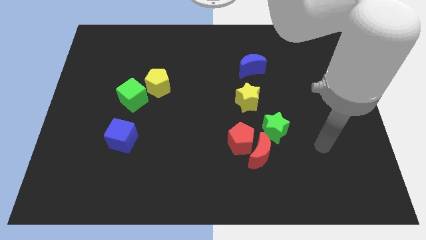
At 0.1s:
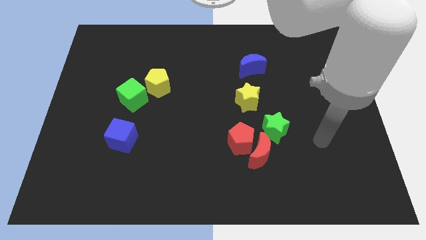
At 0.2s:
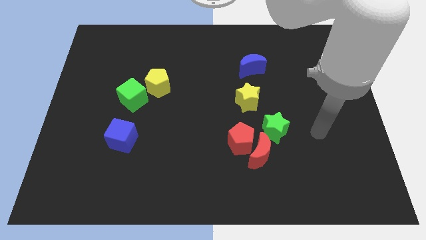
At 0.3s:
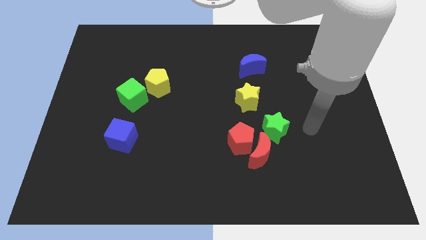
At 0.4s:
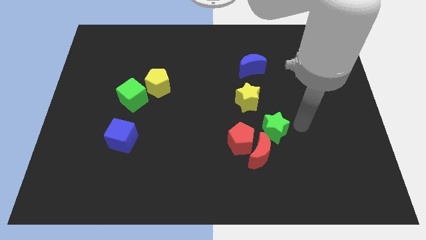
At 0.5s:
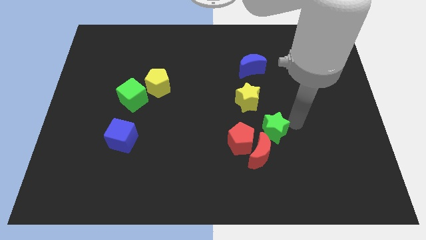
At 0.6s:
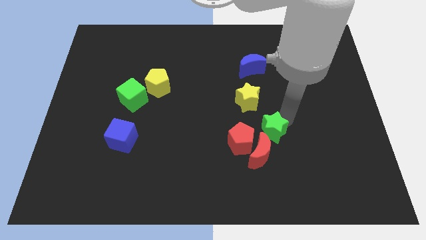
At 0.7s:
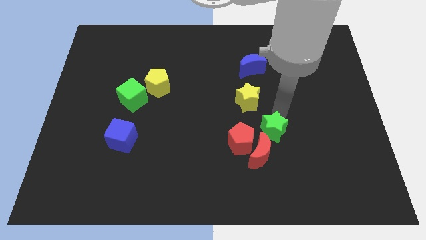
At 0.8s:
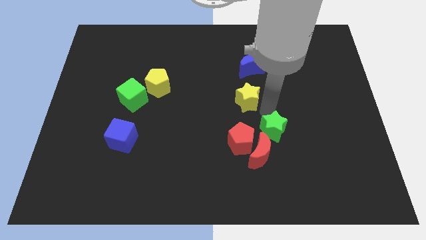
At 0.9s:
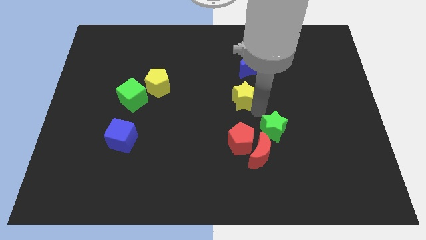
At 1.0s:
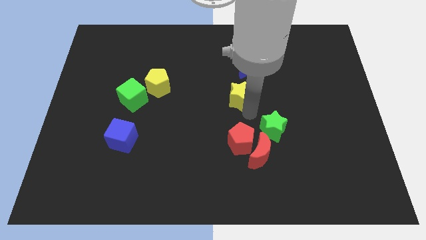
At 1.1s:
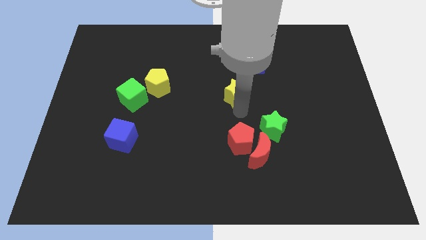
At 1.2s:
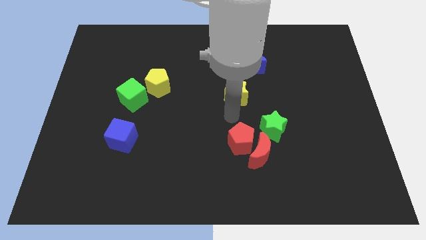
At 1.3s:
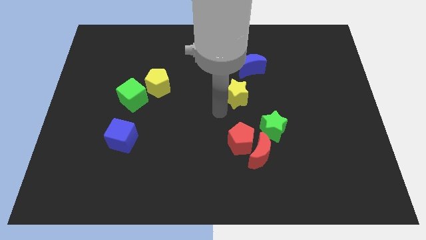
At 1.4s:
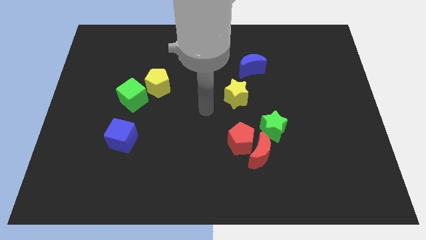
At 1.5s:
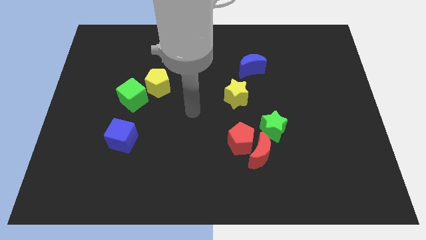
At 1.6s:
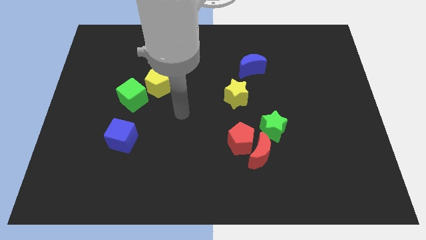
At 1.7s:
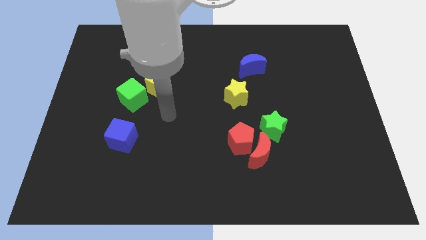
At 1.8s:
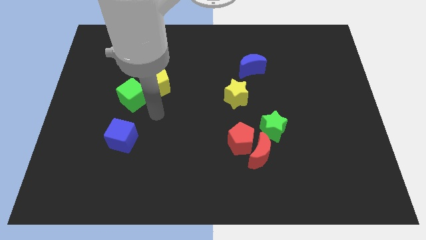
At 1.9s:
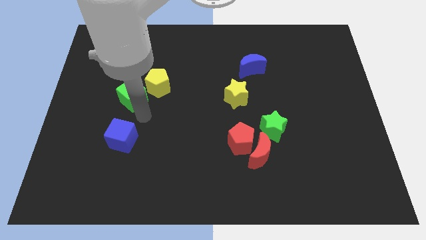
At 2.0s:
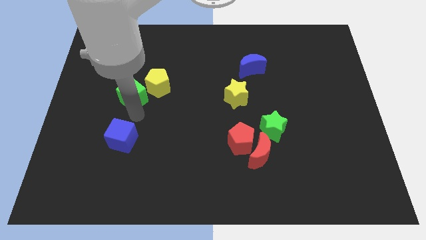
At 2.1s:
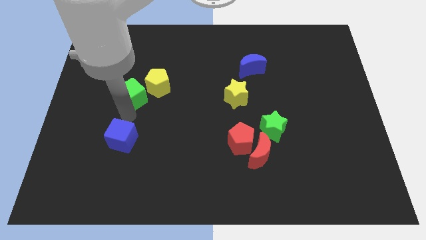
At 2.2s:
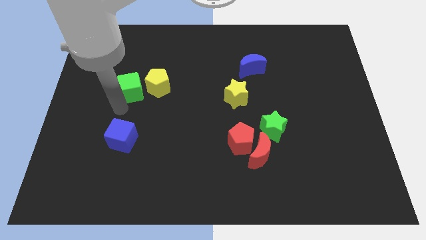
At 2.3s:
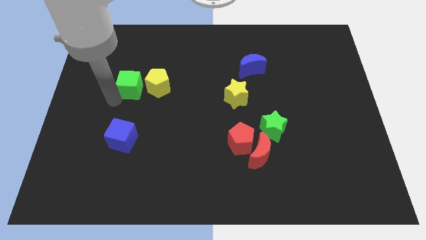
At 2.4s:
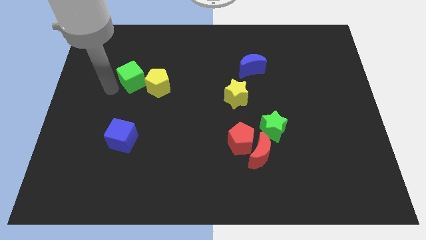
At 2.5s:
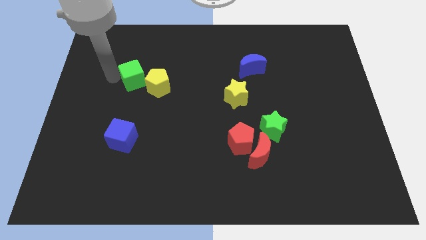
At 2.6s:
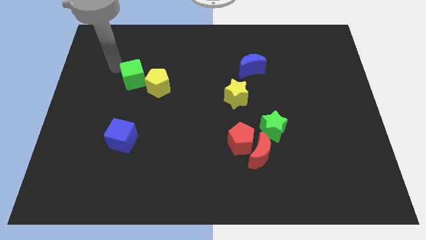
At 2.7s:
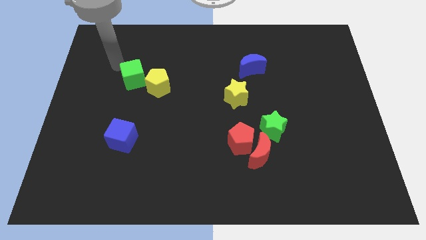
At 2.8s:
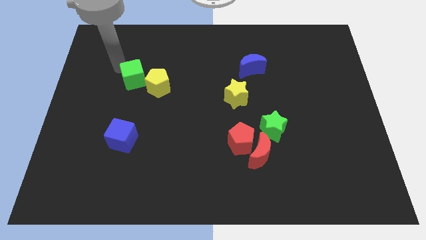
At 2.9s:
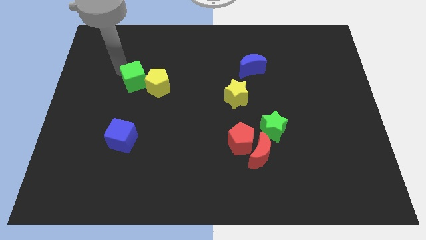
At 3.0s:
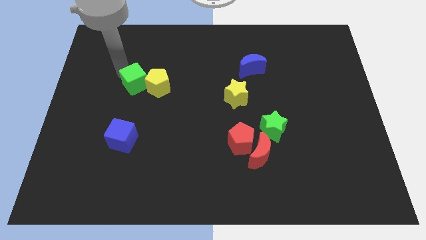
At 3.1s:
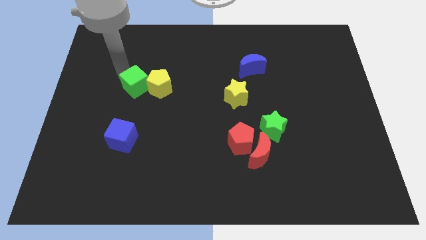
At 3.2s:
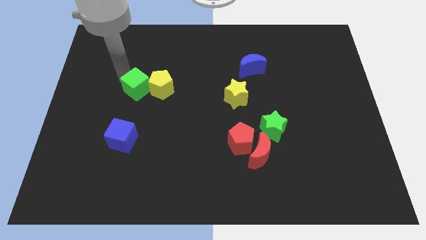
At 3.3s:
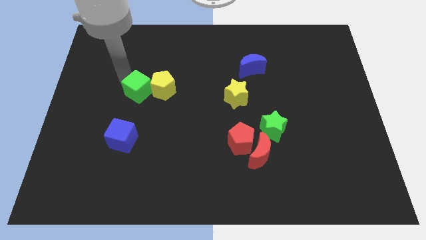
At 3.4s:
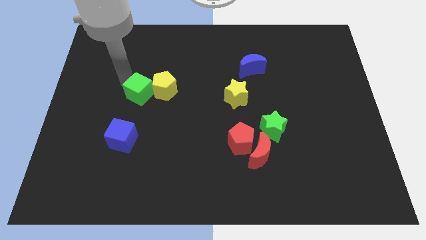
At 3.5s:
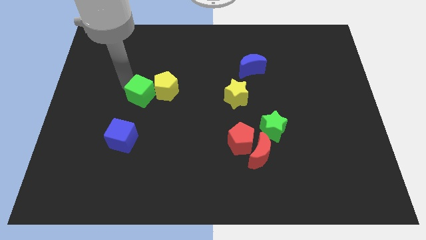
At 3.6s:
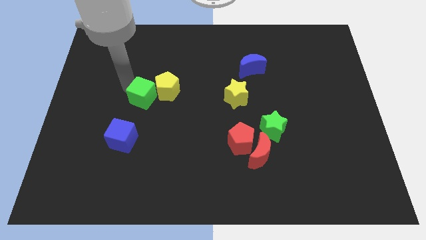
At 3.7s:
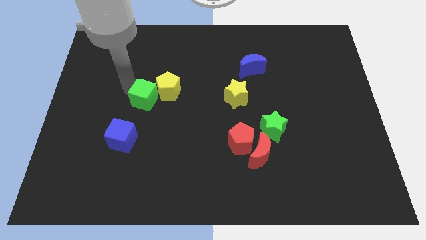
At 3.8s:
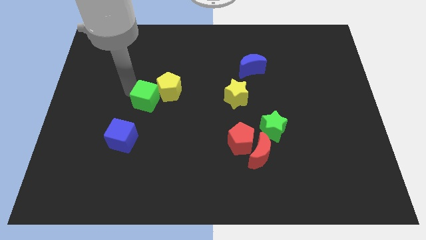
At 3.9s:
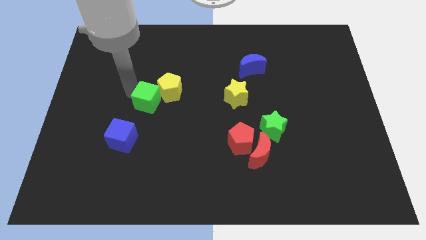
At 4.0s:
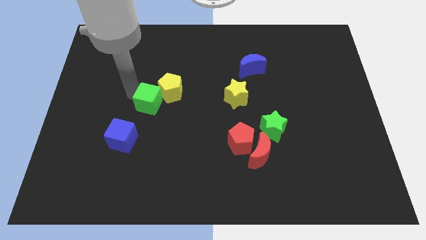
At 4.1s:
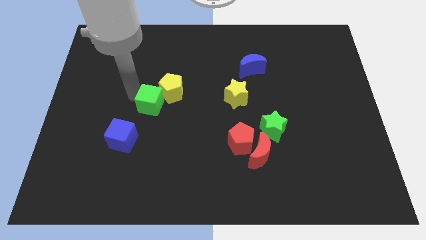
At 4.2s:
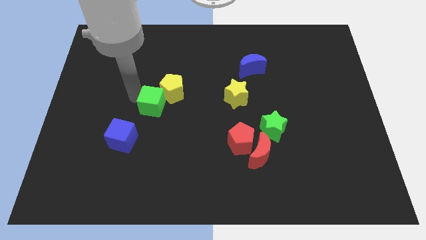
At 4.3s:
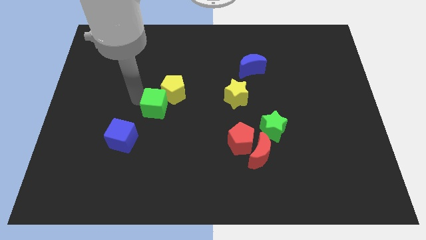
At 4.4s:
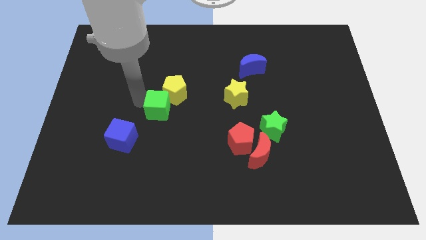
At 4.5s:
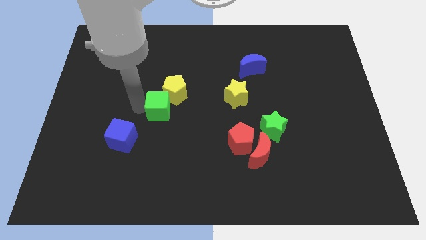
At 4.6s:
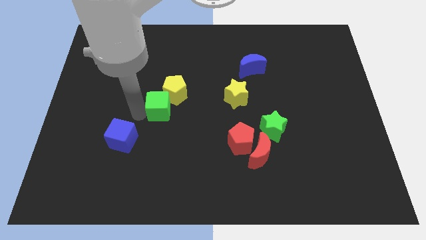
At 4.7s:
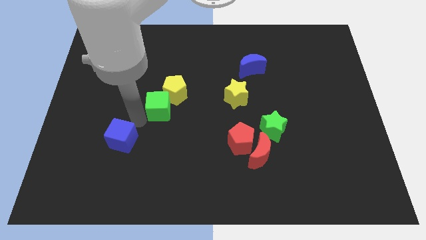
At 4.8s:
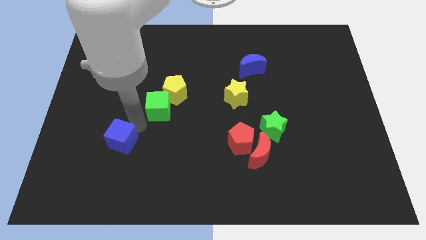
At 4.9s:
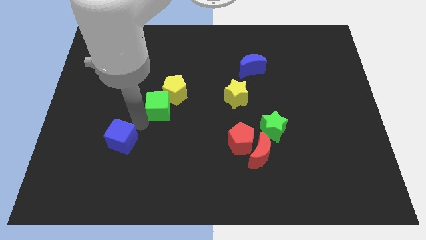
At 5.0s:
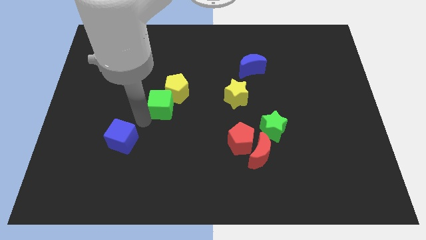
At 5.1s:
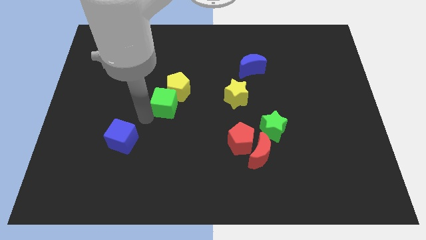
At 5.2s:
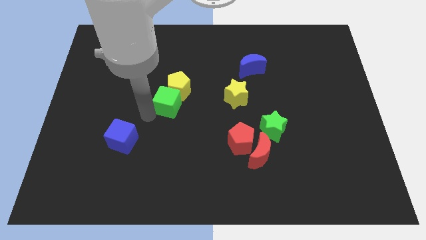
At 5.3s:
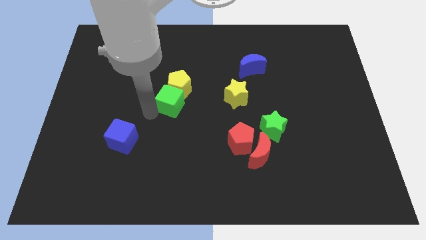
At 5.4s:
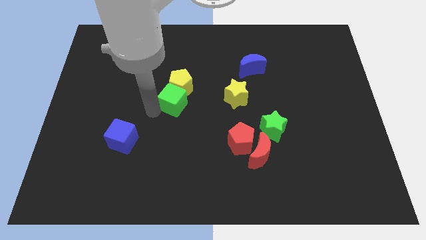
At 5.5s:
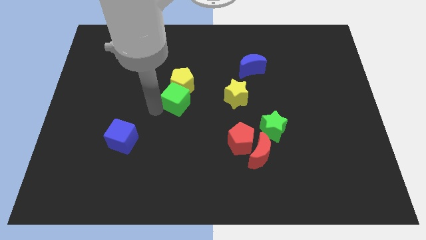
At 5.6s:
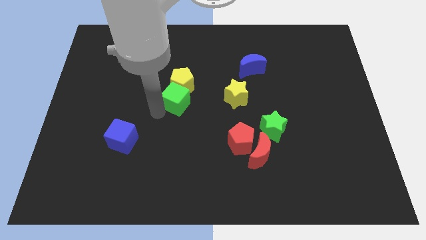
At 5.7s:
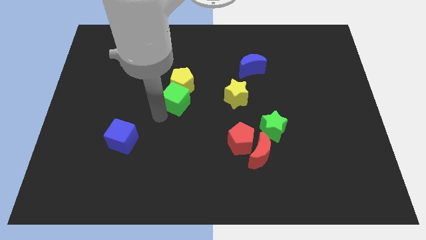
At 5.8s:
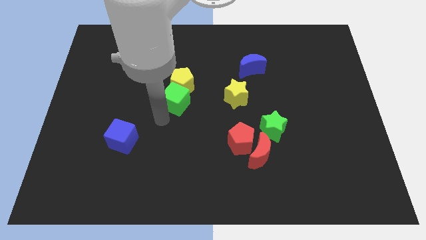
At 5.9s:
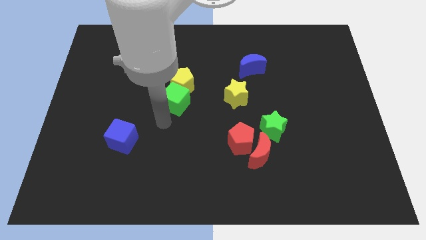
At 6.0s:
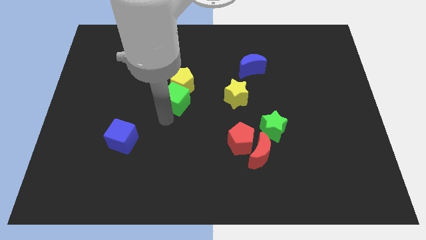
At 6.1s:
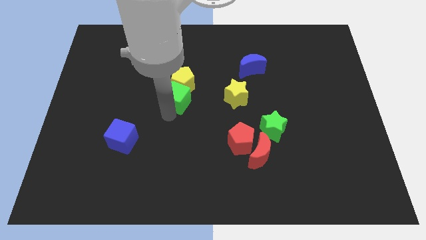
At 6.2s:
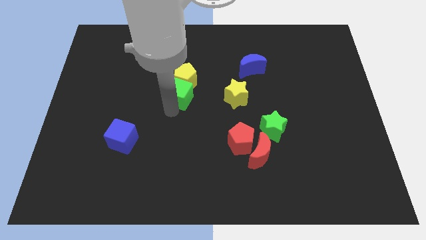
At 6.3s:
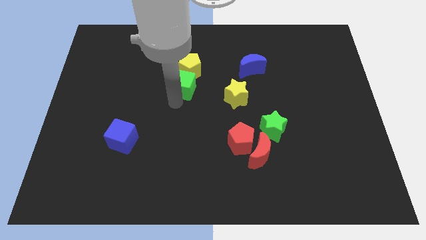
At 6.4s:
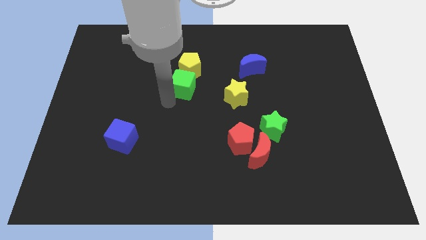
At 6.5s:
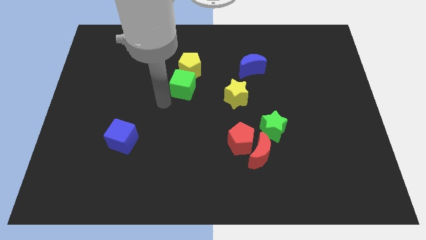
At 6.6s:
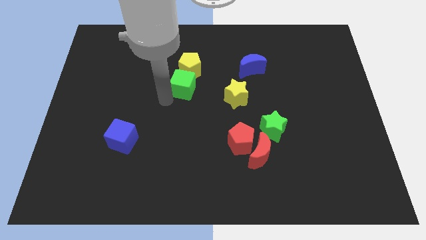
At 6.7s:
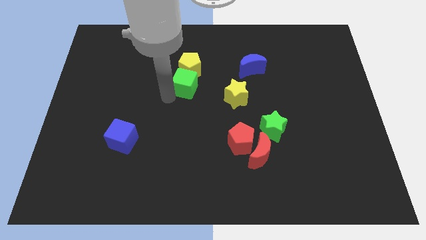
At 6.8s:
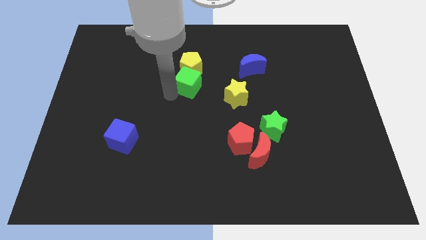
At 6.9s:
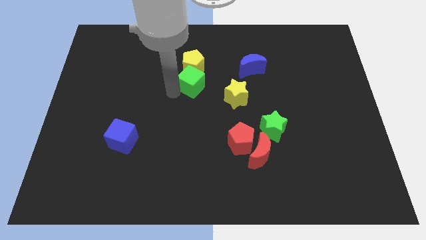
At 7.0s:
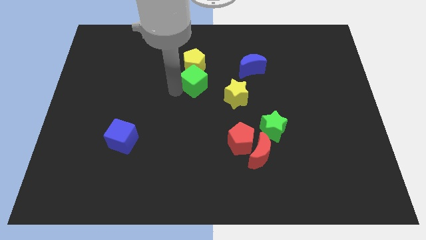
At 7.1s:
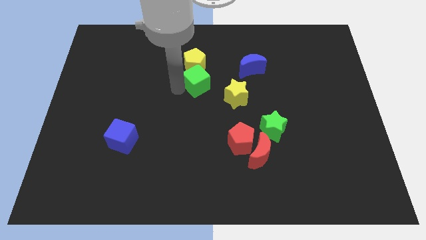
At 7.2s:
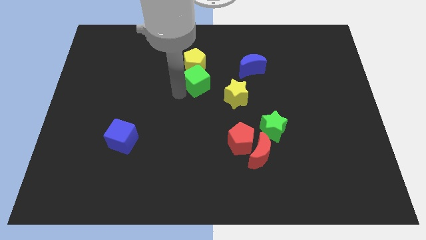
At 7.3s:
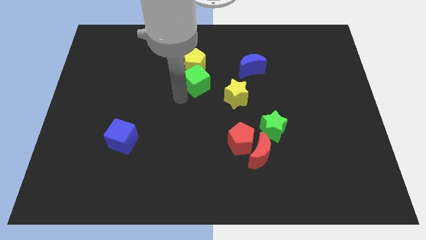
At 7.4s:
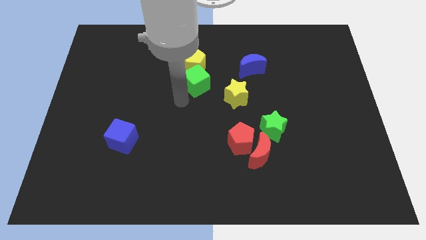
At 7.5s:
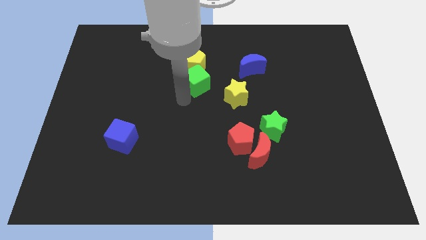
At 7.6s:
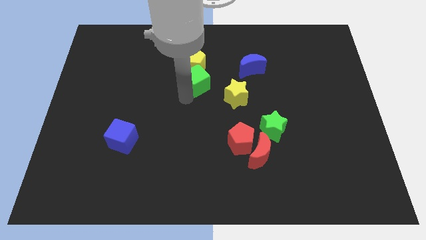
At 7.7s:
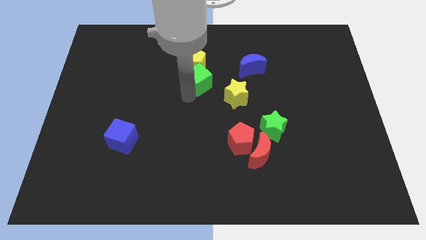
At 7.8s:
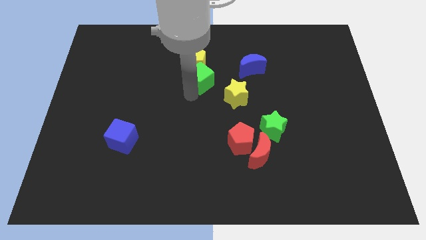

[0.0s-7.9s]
push the green cube just left of the blue moon
